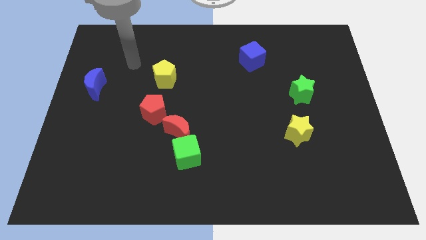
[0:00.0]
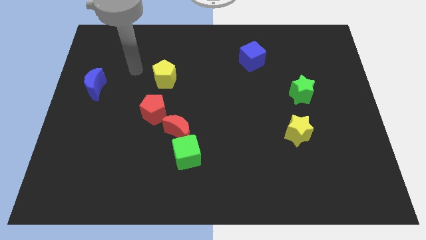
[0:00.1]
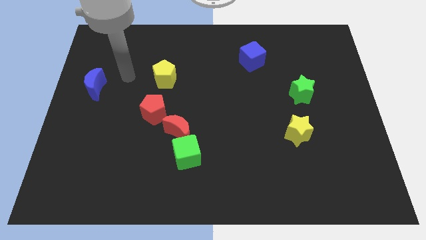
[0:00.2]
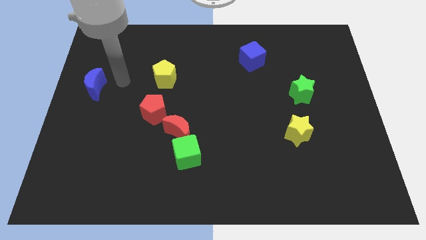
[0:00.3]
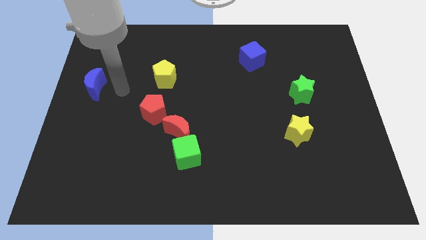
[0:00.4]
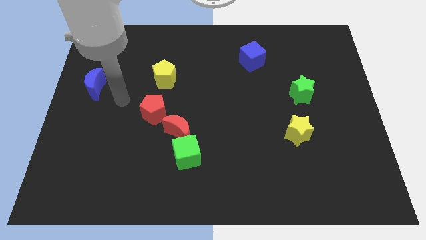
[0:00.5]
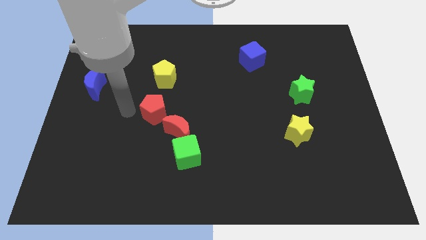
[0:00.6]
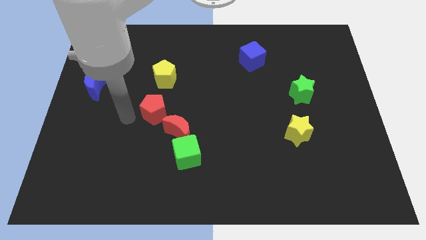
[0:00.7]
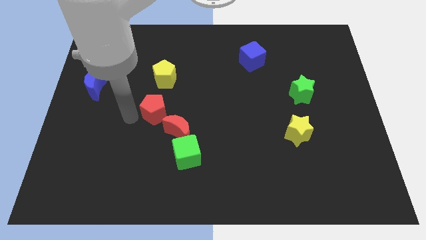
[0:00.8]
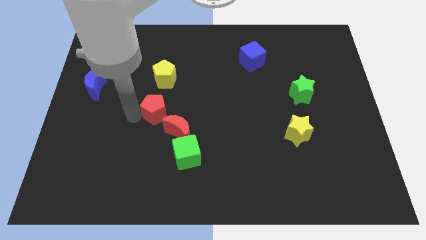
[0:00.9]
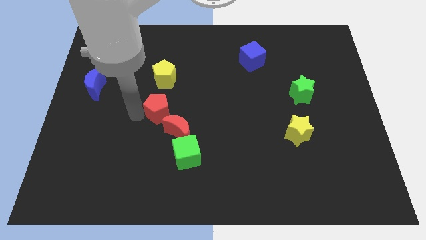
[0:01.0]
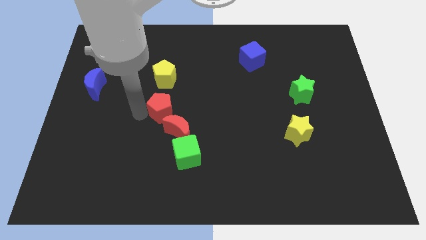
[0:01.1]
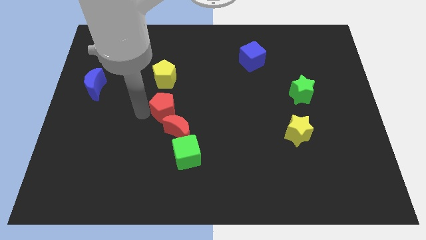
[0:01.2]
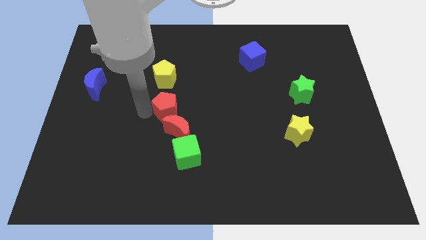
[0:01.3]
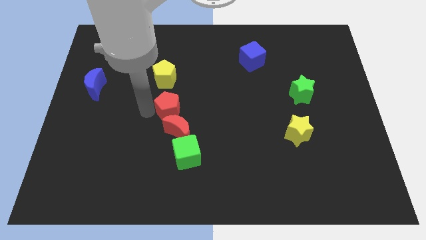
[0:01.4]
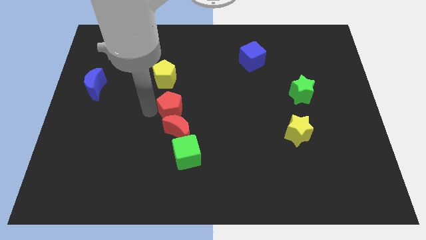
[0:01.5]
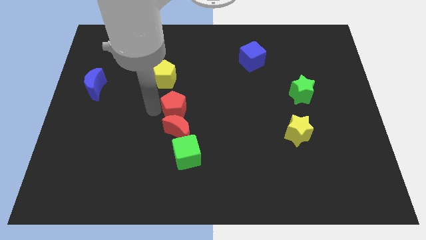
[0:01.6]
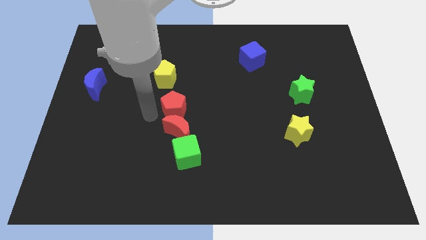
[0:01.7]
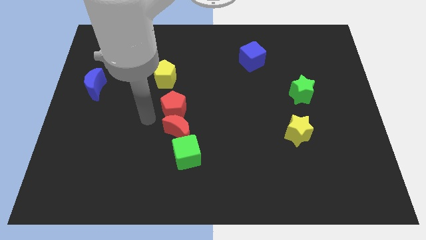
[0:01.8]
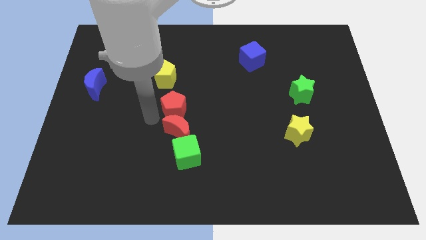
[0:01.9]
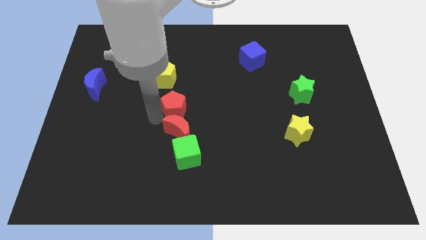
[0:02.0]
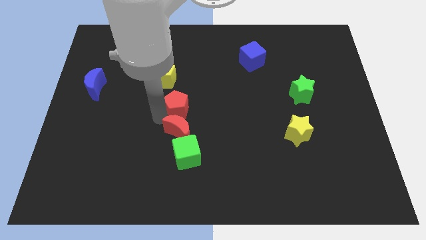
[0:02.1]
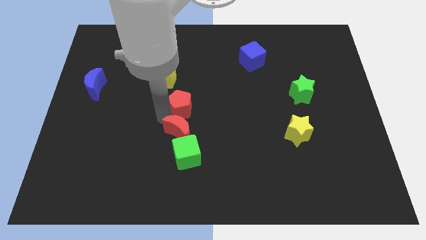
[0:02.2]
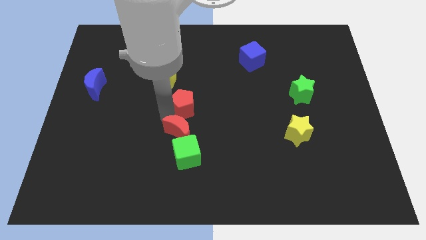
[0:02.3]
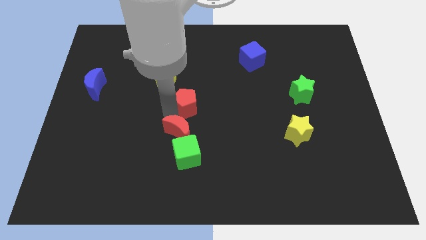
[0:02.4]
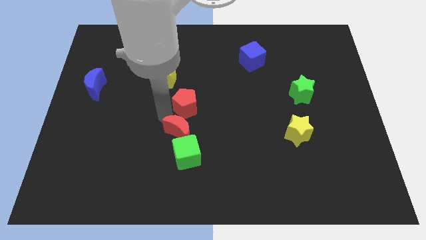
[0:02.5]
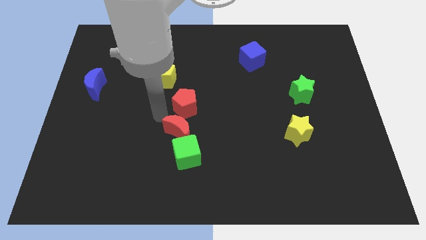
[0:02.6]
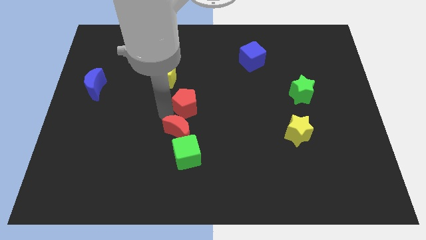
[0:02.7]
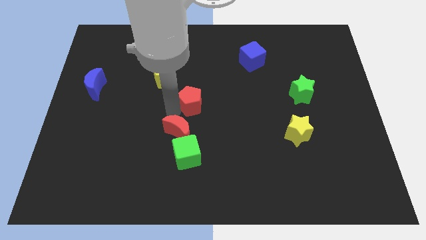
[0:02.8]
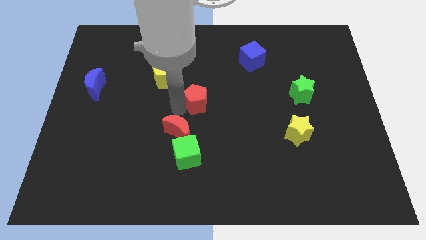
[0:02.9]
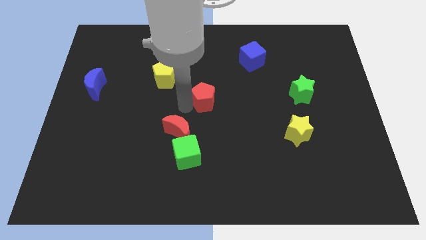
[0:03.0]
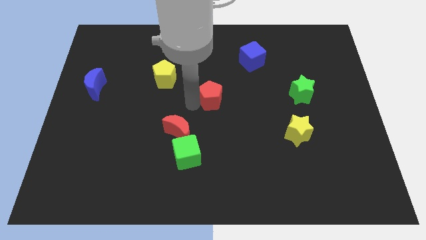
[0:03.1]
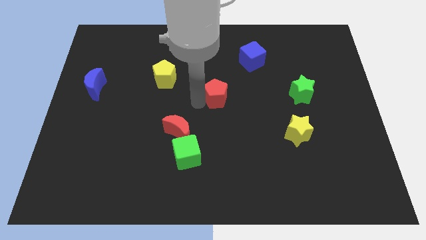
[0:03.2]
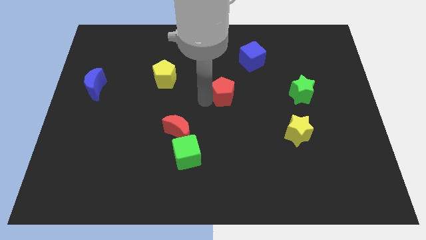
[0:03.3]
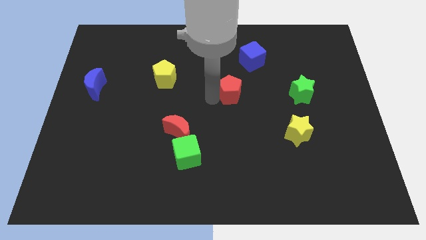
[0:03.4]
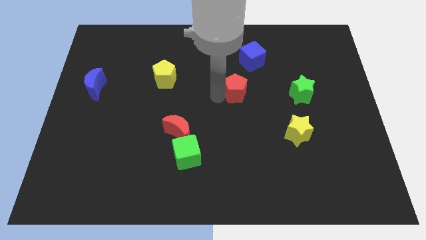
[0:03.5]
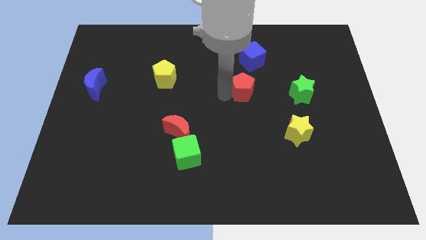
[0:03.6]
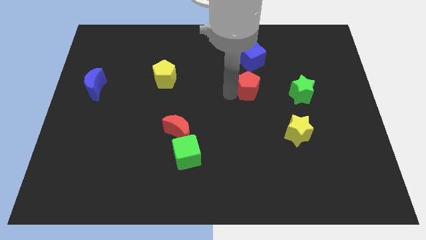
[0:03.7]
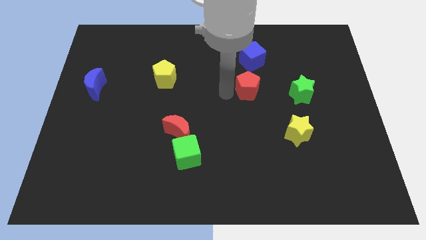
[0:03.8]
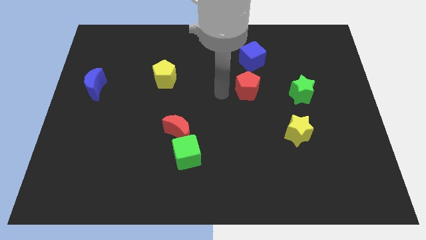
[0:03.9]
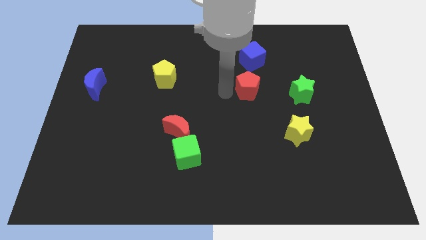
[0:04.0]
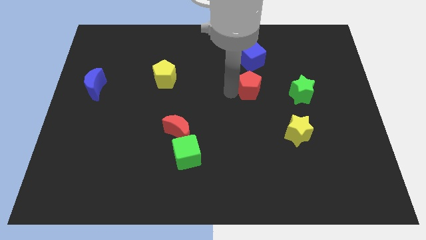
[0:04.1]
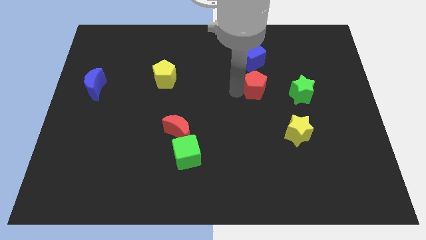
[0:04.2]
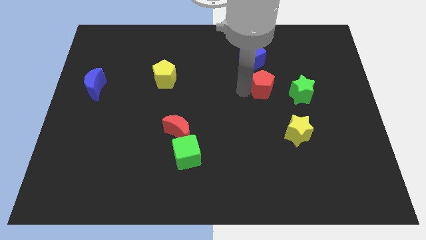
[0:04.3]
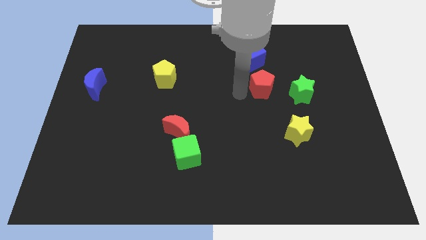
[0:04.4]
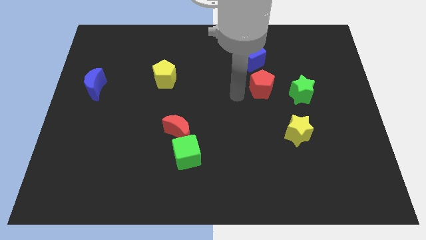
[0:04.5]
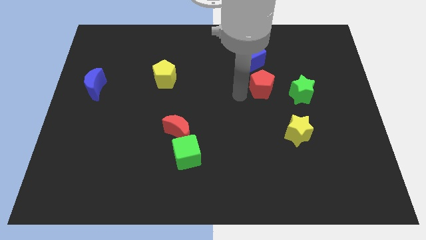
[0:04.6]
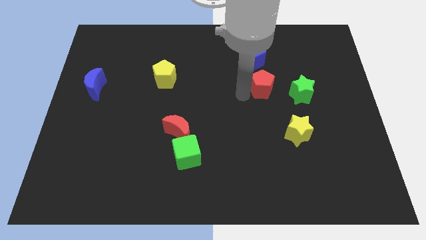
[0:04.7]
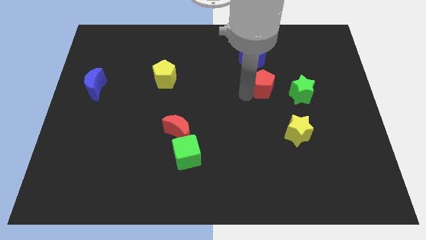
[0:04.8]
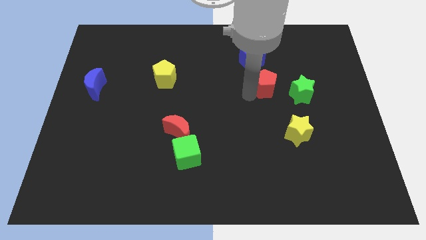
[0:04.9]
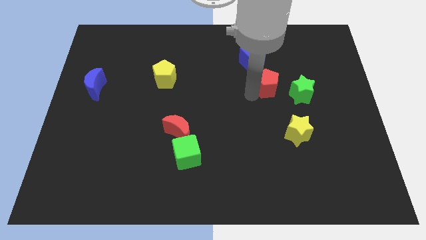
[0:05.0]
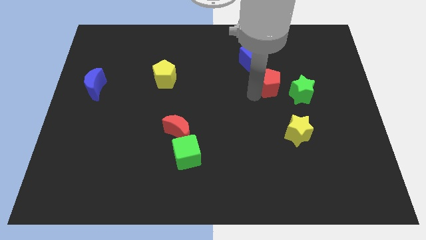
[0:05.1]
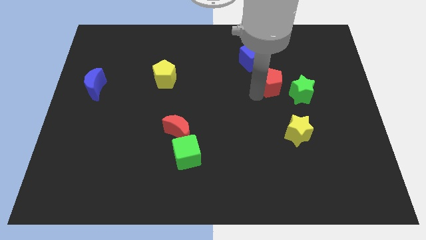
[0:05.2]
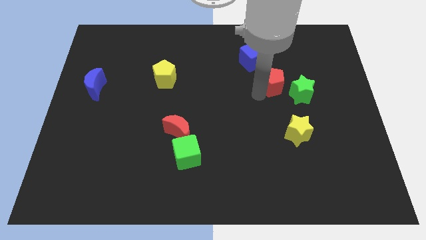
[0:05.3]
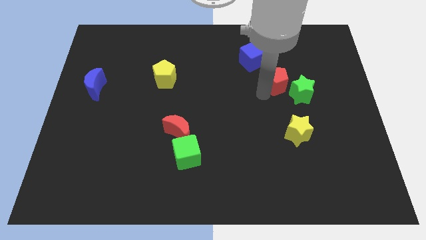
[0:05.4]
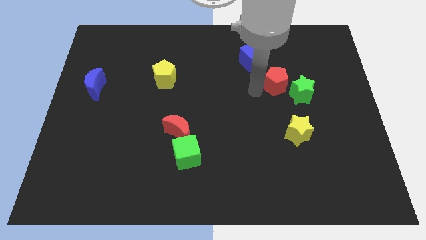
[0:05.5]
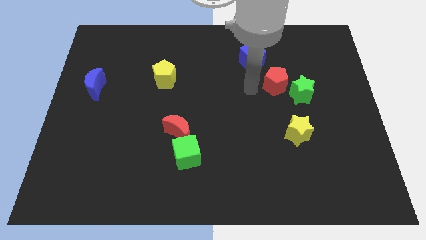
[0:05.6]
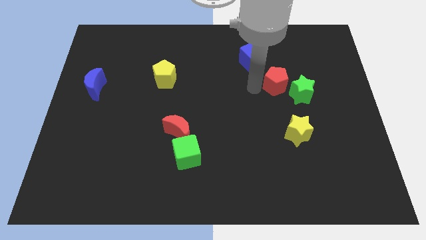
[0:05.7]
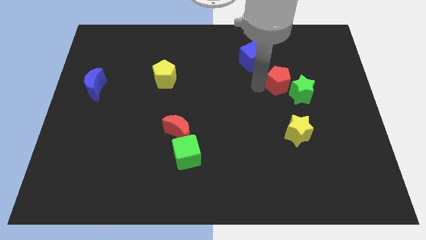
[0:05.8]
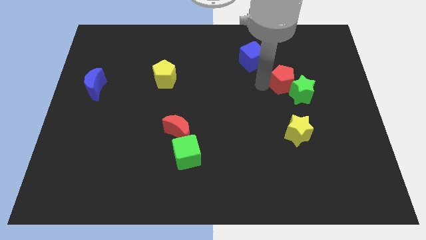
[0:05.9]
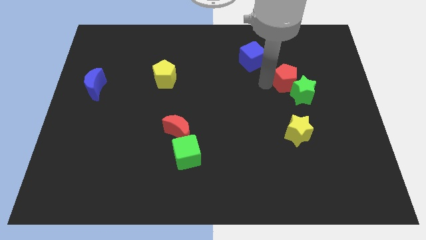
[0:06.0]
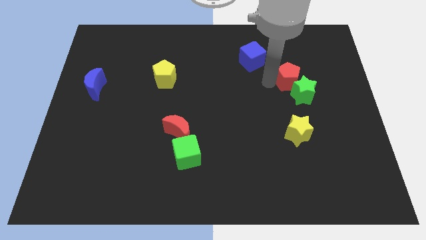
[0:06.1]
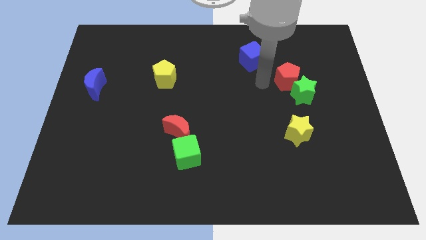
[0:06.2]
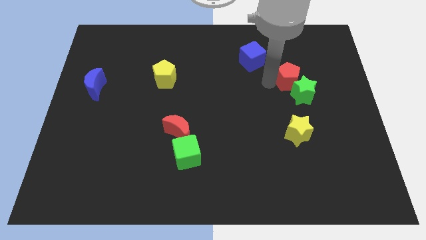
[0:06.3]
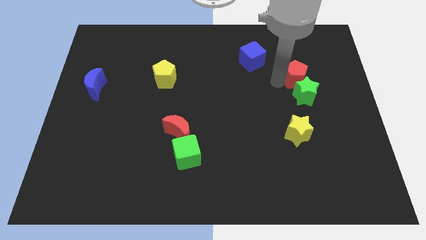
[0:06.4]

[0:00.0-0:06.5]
slide the red pentagon to the top right side of the green star

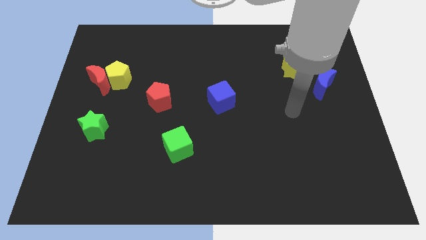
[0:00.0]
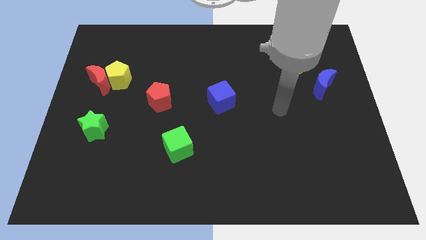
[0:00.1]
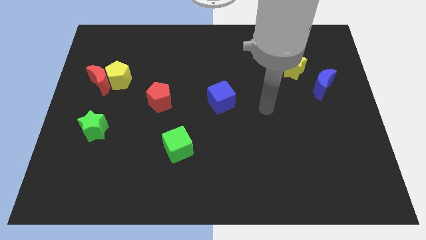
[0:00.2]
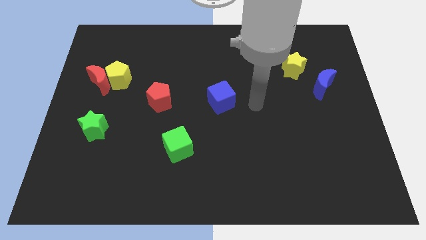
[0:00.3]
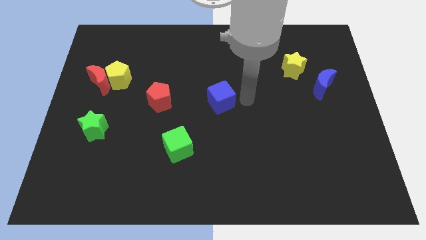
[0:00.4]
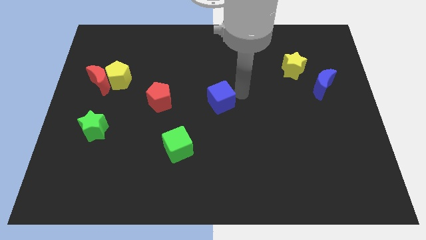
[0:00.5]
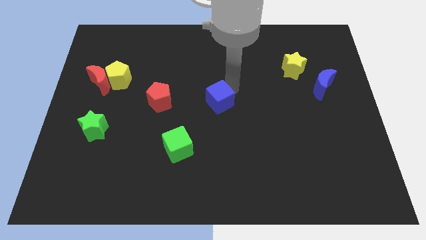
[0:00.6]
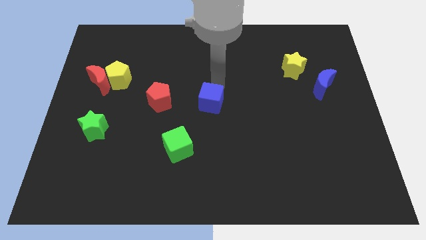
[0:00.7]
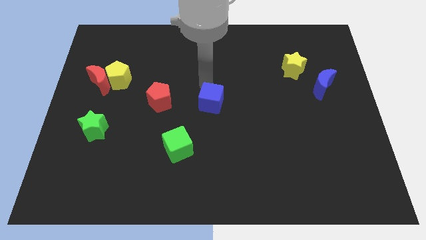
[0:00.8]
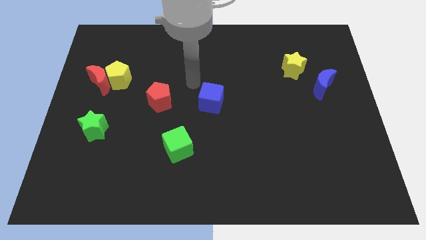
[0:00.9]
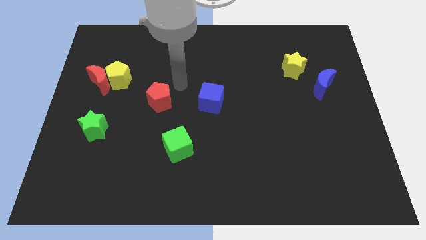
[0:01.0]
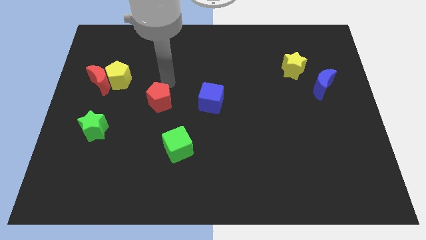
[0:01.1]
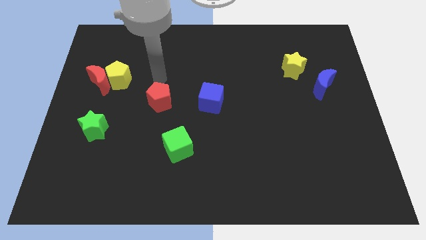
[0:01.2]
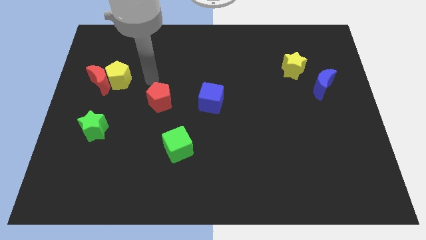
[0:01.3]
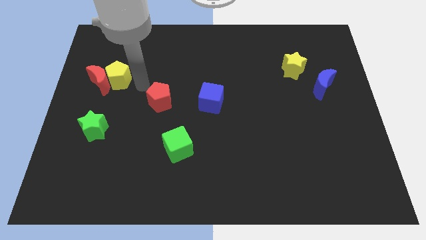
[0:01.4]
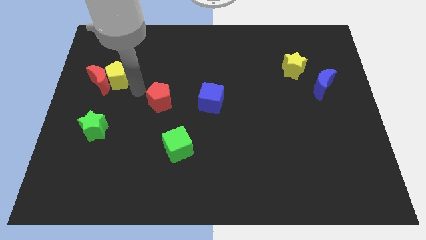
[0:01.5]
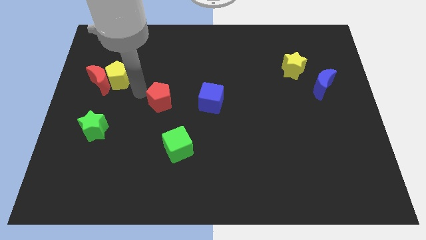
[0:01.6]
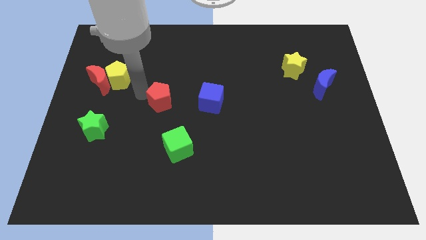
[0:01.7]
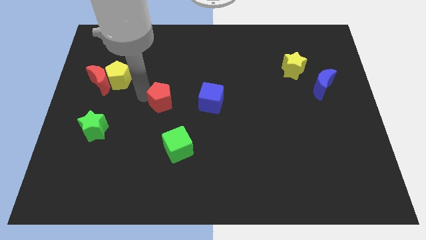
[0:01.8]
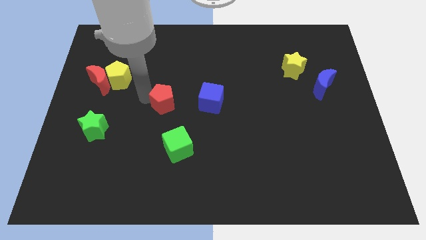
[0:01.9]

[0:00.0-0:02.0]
move the red pentagon above the green cube
